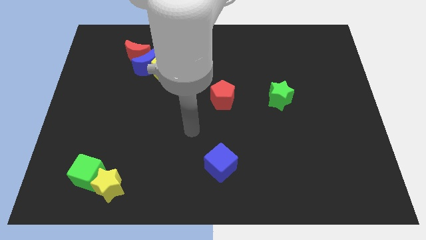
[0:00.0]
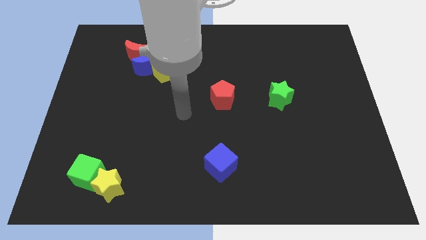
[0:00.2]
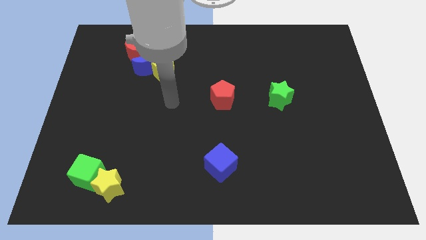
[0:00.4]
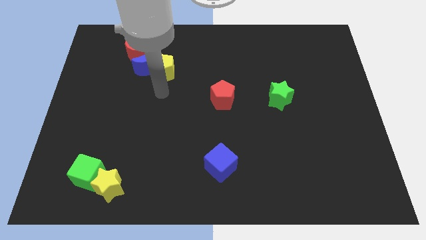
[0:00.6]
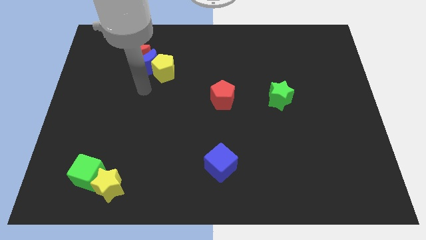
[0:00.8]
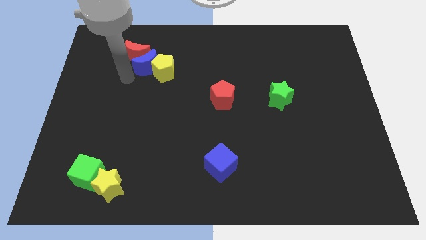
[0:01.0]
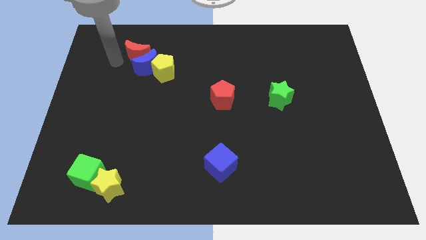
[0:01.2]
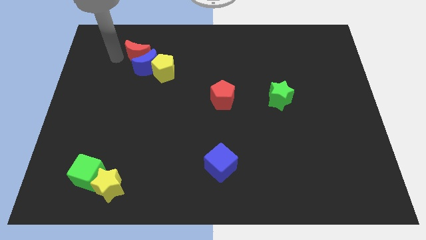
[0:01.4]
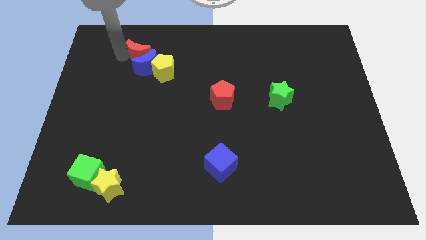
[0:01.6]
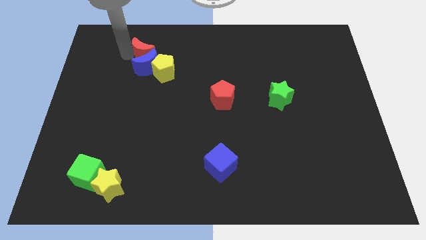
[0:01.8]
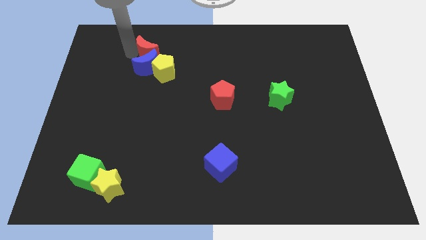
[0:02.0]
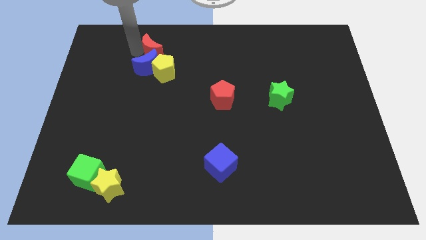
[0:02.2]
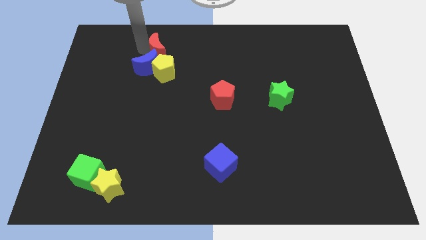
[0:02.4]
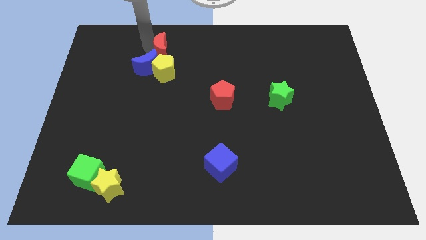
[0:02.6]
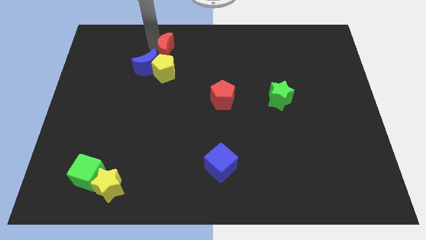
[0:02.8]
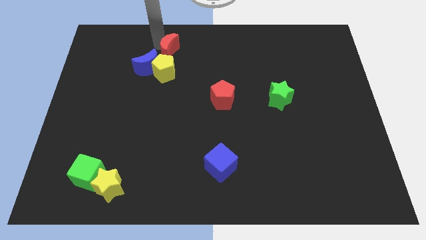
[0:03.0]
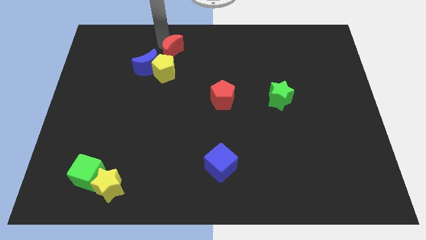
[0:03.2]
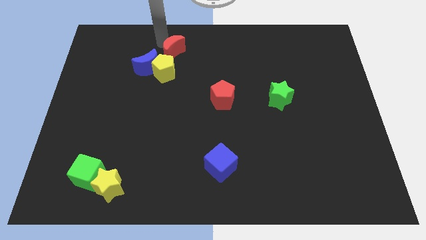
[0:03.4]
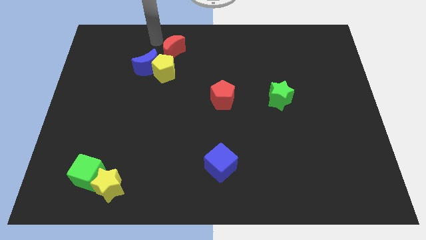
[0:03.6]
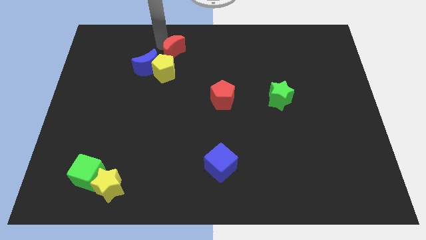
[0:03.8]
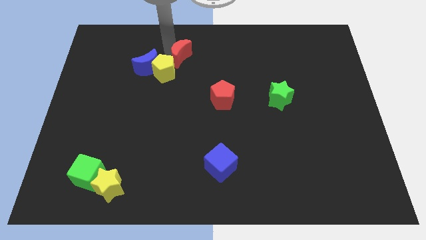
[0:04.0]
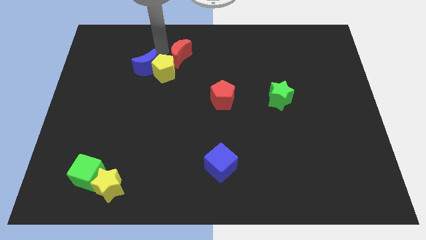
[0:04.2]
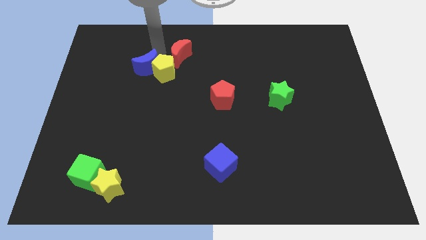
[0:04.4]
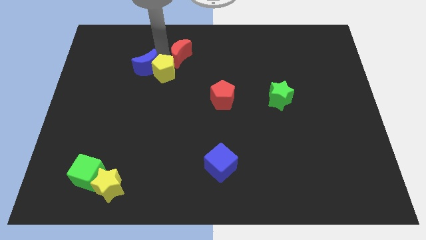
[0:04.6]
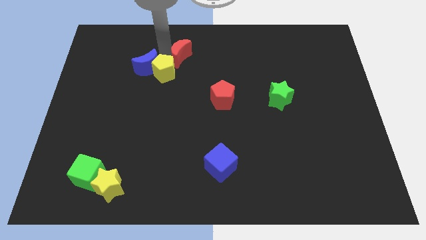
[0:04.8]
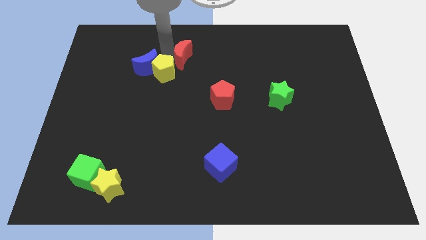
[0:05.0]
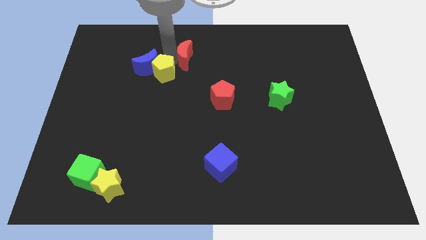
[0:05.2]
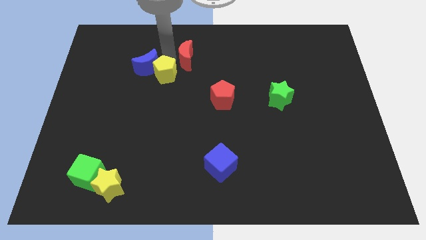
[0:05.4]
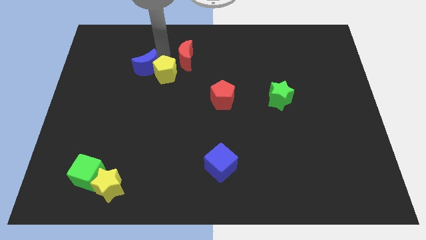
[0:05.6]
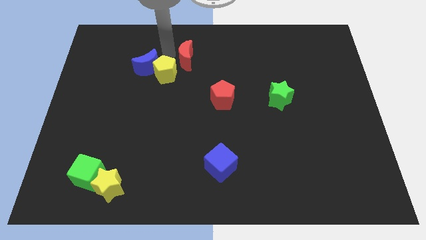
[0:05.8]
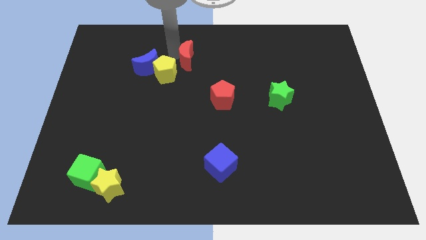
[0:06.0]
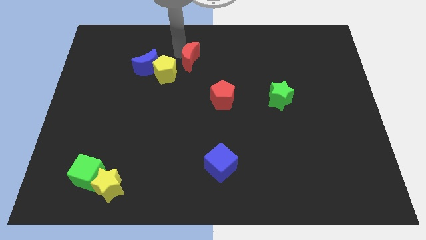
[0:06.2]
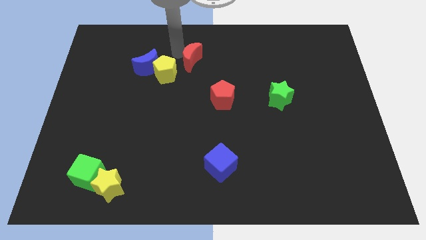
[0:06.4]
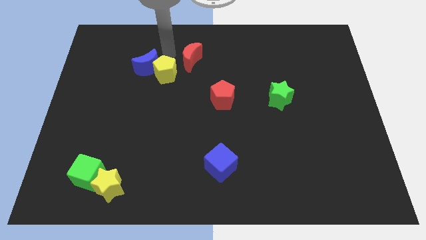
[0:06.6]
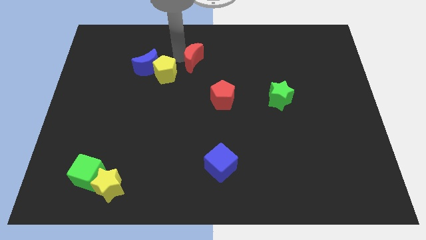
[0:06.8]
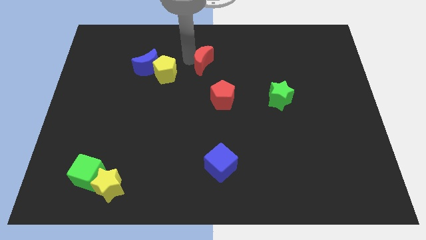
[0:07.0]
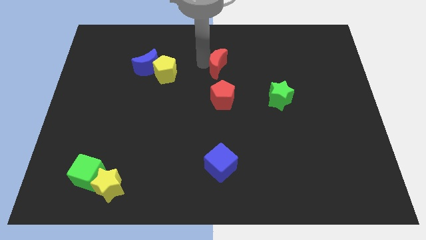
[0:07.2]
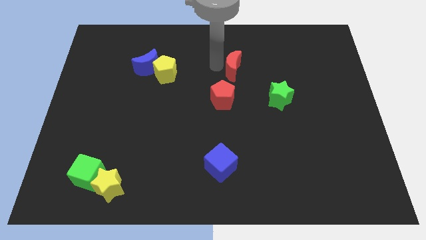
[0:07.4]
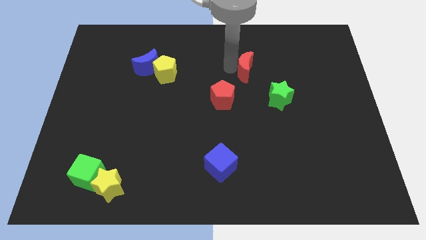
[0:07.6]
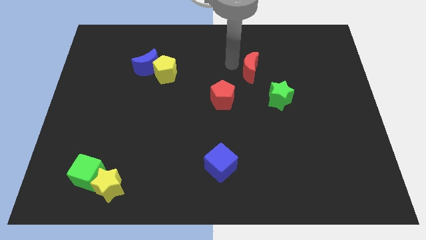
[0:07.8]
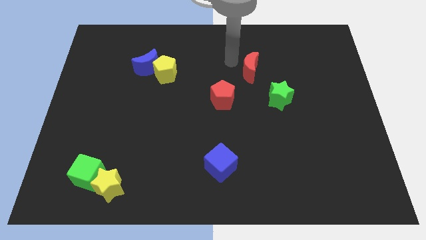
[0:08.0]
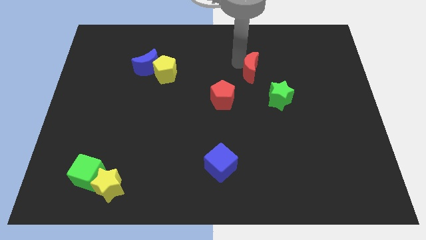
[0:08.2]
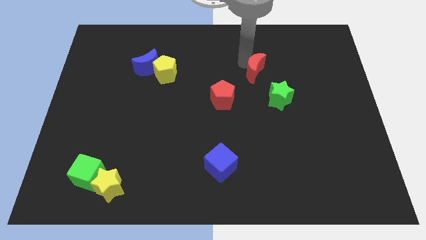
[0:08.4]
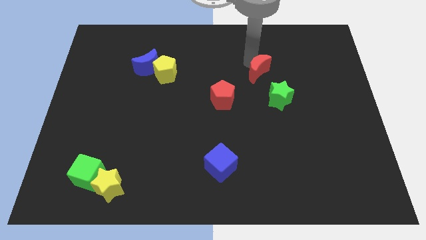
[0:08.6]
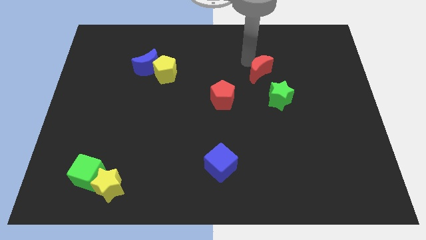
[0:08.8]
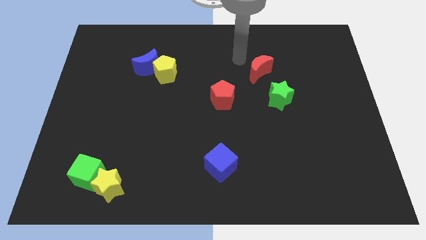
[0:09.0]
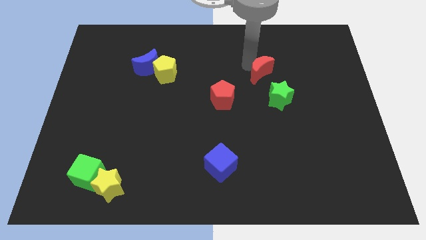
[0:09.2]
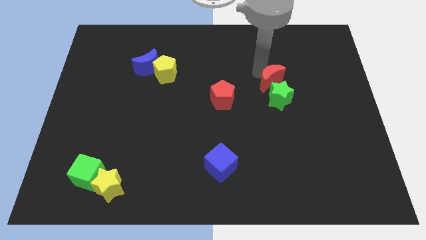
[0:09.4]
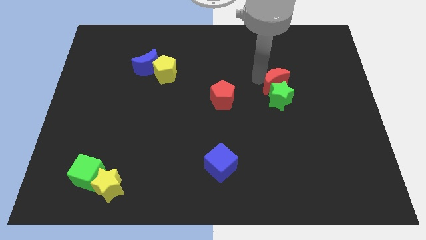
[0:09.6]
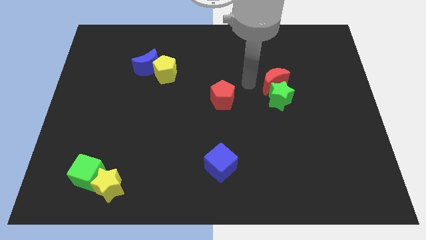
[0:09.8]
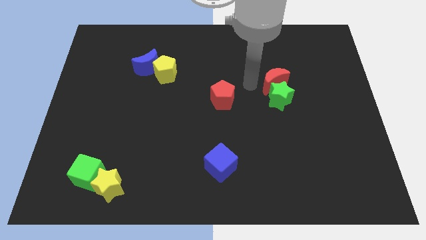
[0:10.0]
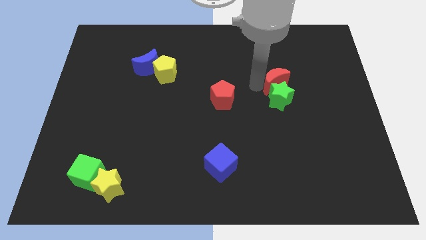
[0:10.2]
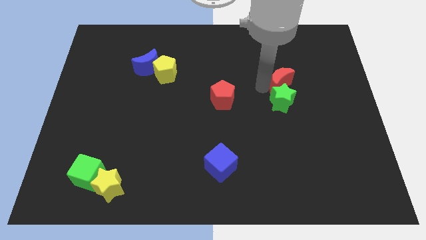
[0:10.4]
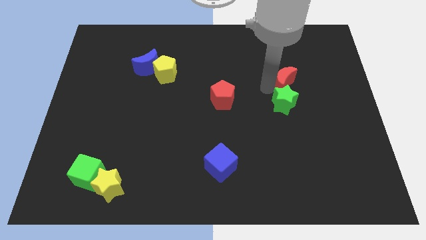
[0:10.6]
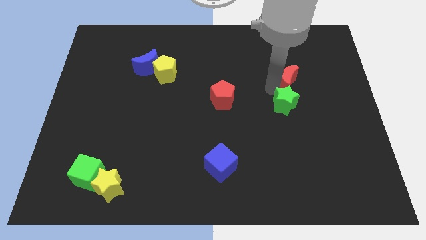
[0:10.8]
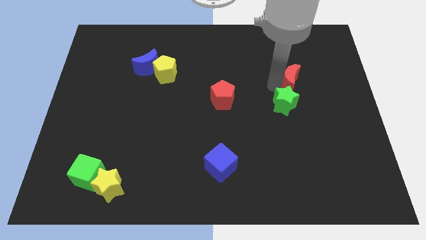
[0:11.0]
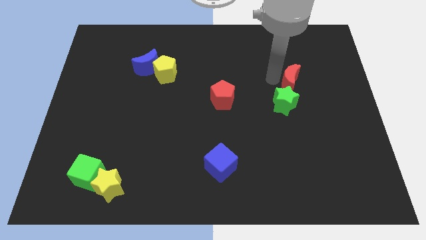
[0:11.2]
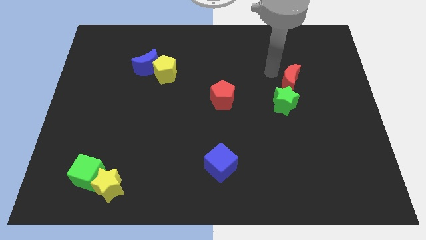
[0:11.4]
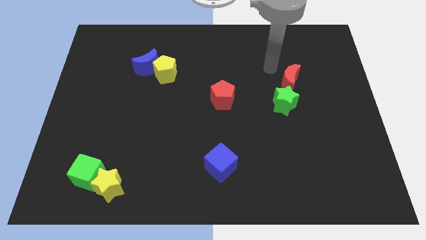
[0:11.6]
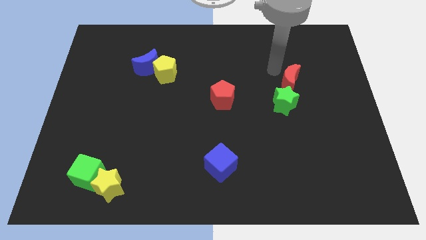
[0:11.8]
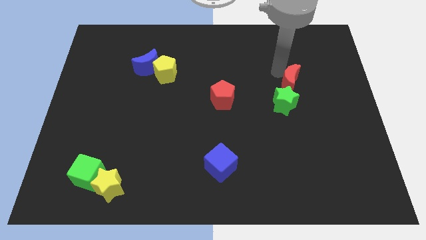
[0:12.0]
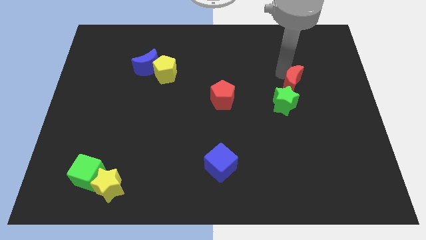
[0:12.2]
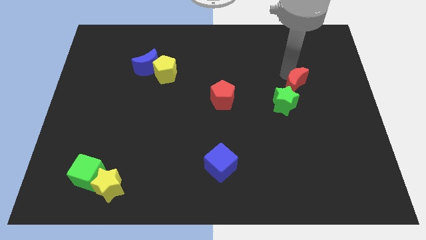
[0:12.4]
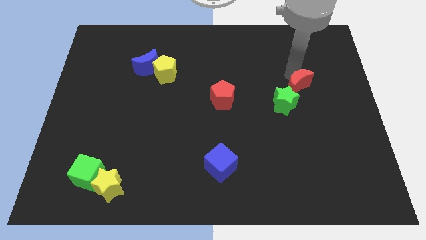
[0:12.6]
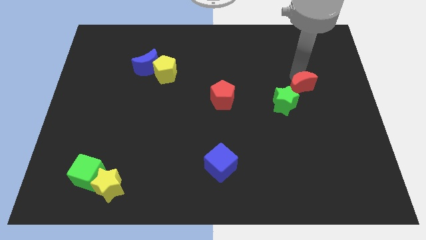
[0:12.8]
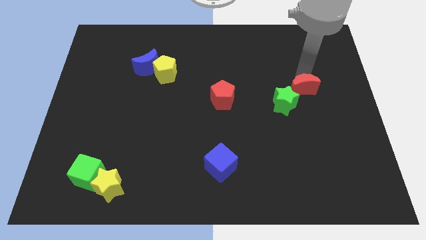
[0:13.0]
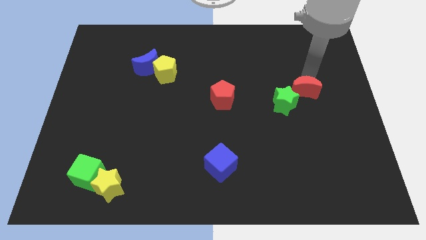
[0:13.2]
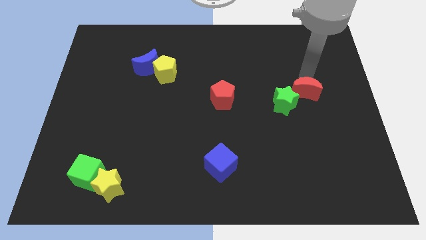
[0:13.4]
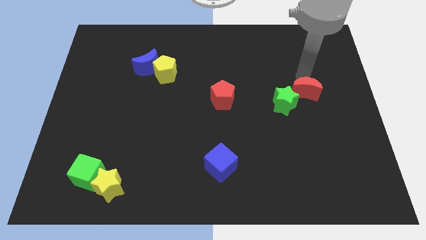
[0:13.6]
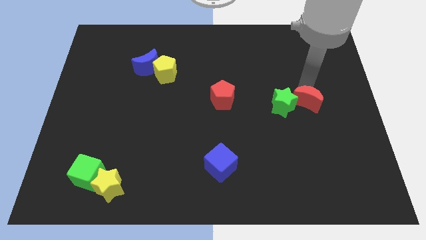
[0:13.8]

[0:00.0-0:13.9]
slide the red moon to the bottom right side of the green star

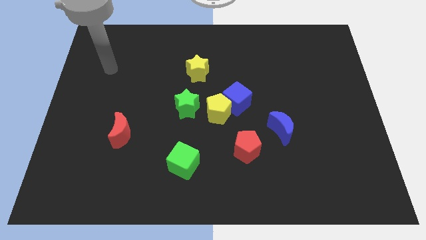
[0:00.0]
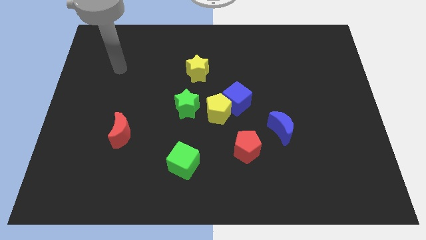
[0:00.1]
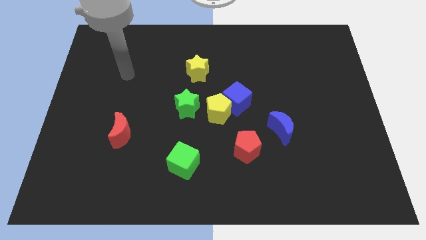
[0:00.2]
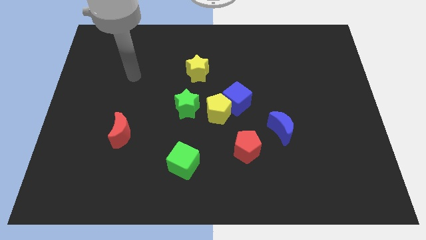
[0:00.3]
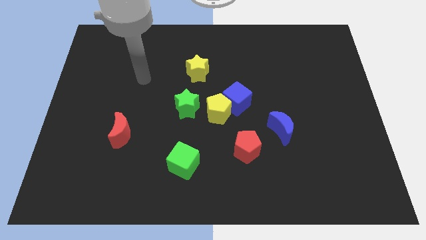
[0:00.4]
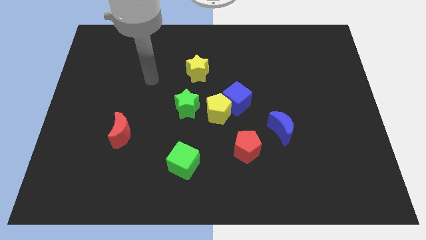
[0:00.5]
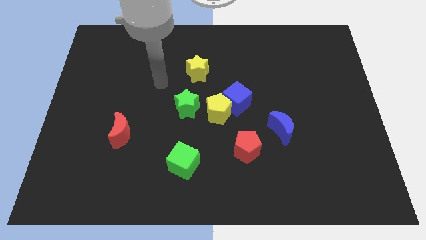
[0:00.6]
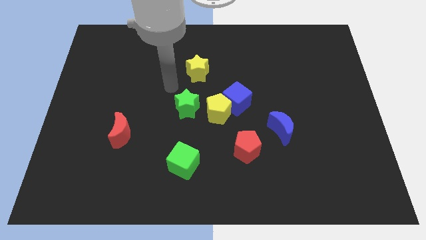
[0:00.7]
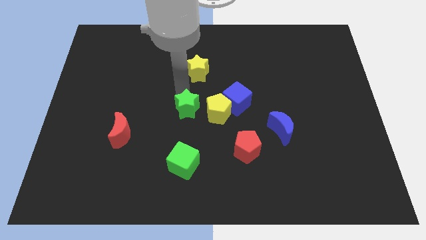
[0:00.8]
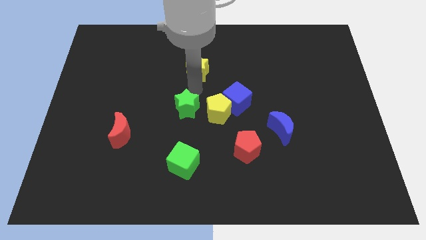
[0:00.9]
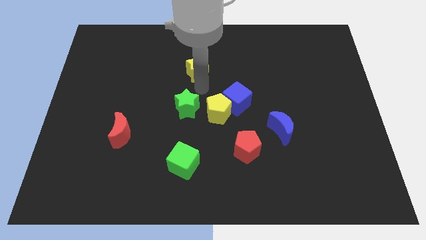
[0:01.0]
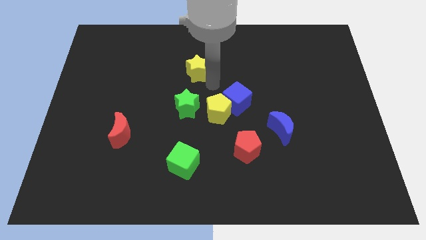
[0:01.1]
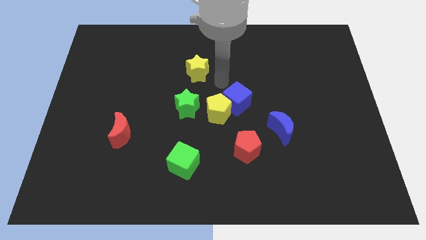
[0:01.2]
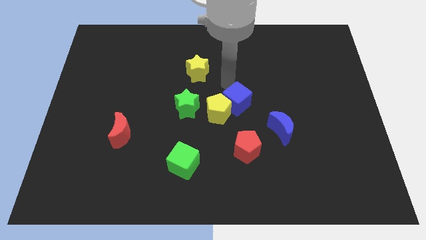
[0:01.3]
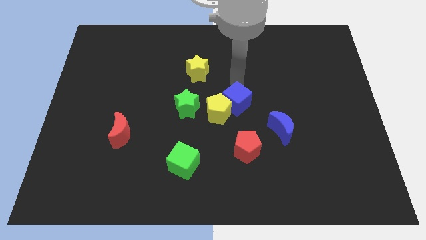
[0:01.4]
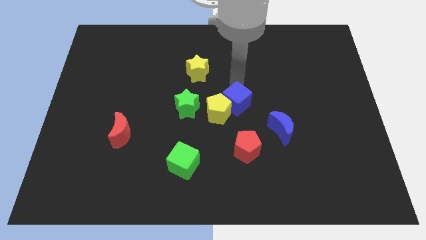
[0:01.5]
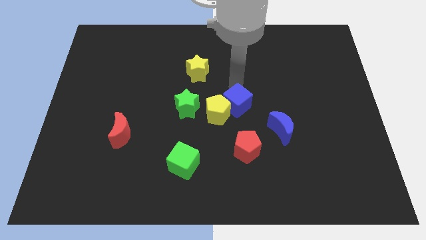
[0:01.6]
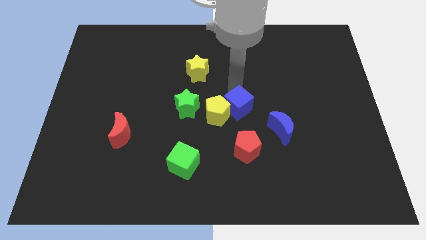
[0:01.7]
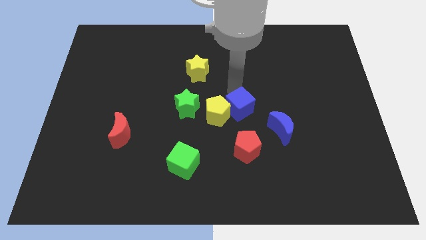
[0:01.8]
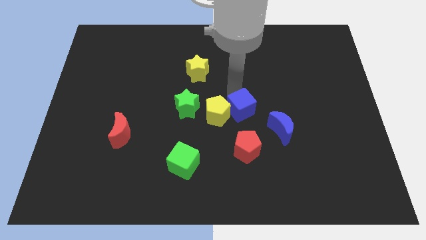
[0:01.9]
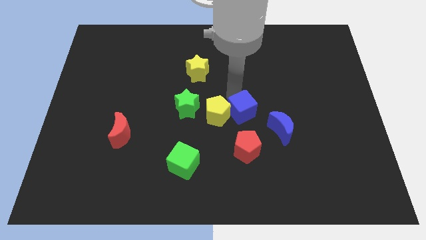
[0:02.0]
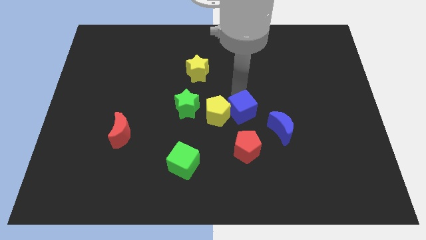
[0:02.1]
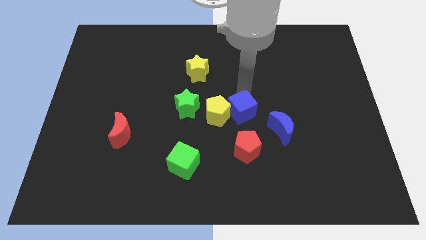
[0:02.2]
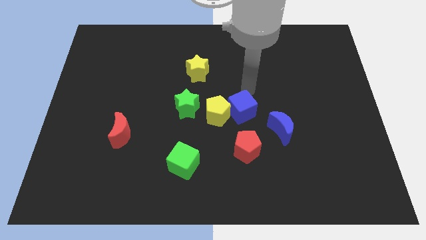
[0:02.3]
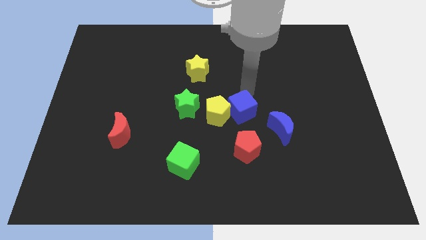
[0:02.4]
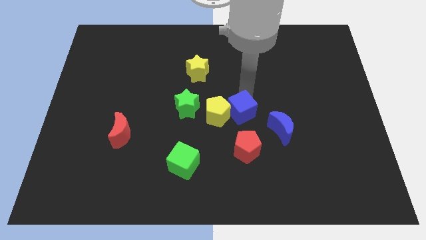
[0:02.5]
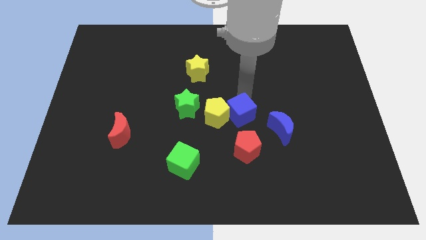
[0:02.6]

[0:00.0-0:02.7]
slide the blue cube left of the blue moon
